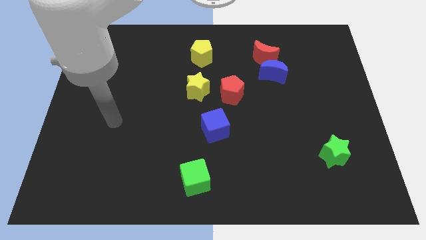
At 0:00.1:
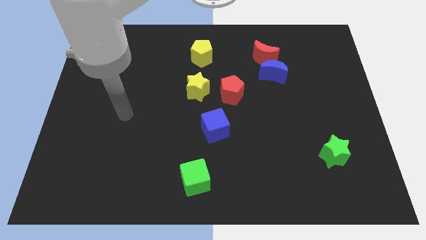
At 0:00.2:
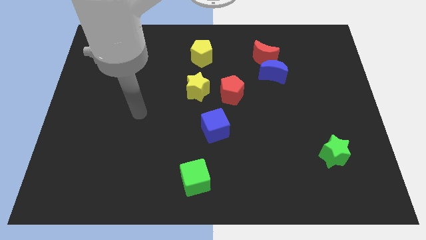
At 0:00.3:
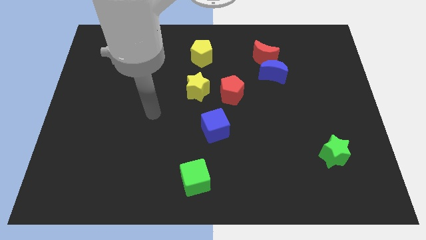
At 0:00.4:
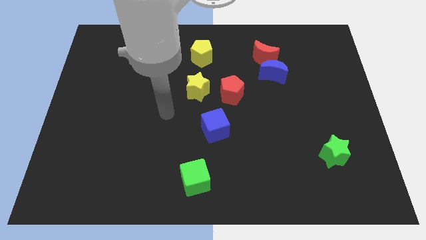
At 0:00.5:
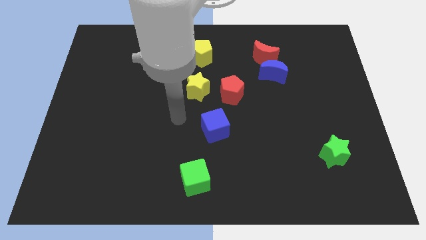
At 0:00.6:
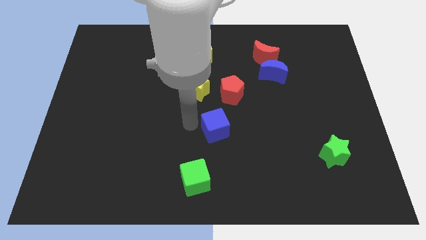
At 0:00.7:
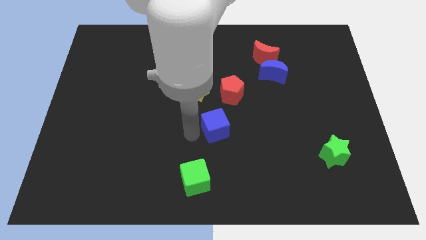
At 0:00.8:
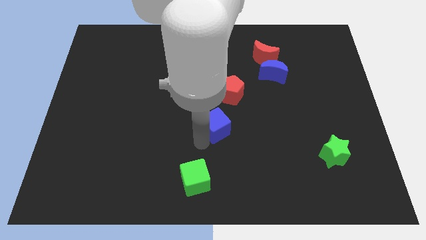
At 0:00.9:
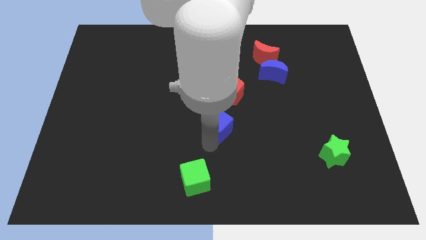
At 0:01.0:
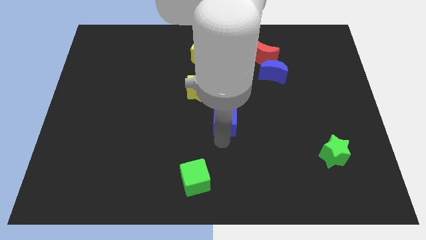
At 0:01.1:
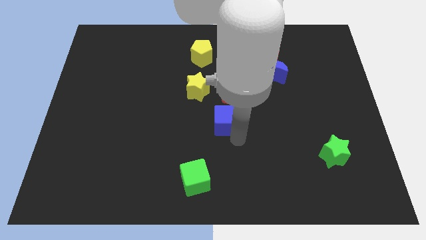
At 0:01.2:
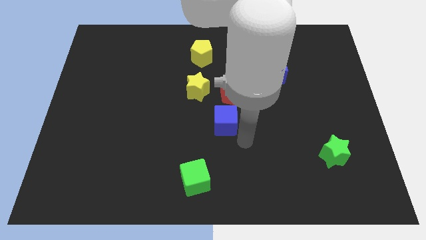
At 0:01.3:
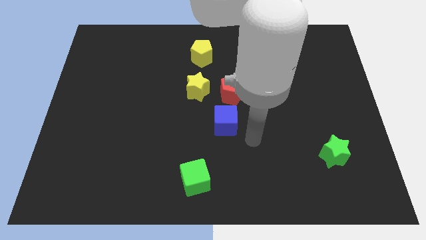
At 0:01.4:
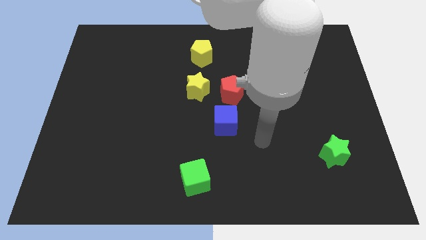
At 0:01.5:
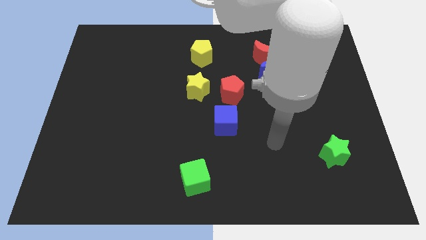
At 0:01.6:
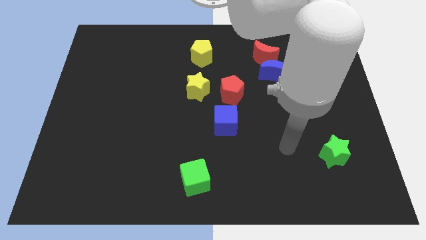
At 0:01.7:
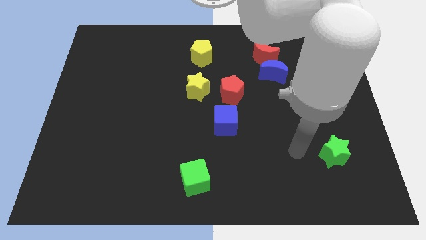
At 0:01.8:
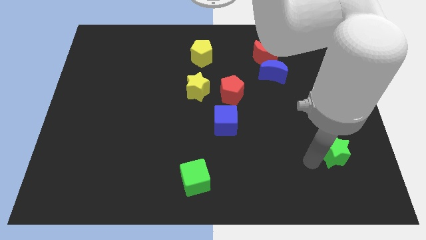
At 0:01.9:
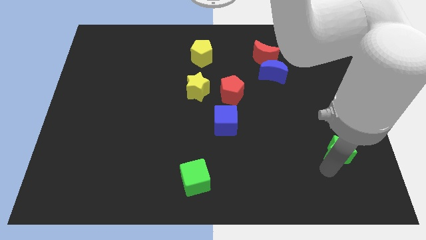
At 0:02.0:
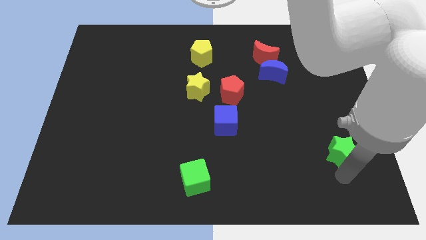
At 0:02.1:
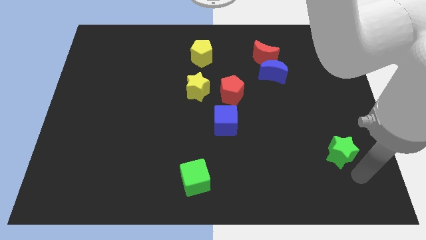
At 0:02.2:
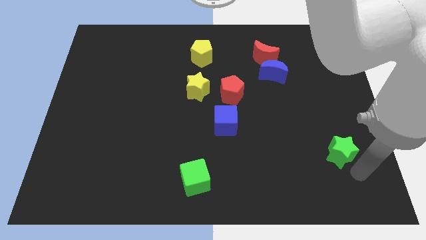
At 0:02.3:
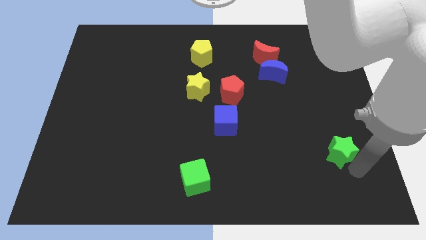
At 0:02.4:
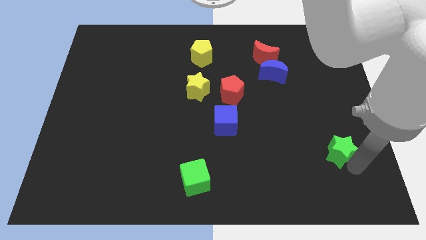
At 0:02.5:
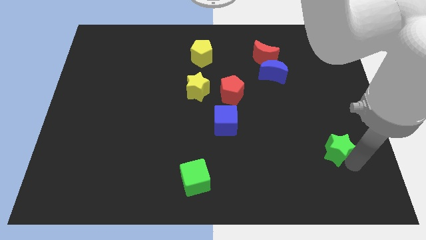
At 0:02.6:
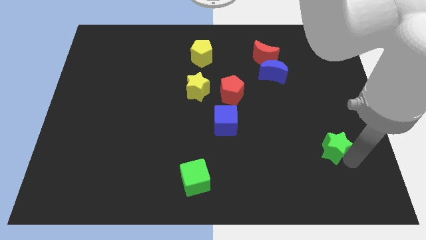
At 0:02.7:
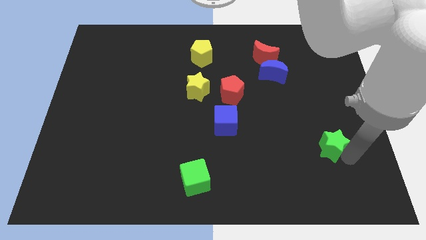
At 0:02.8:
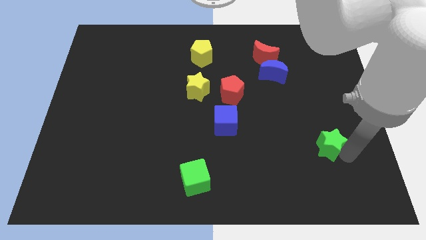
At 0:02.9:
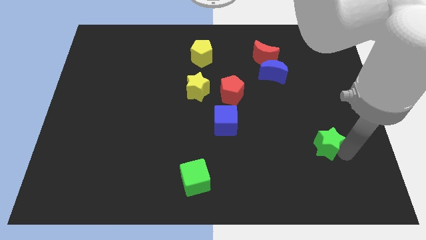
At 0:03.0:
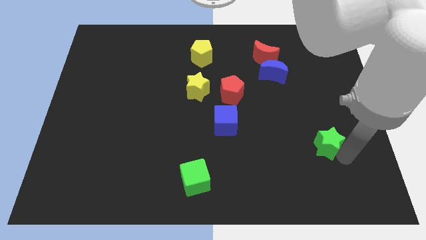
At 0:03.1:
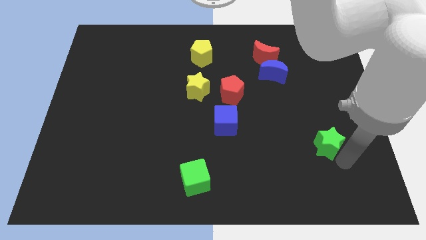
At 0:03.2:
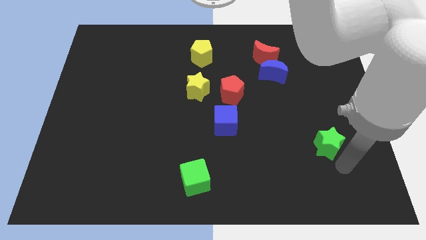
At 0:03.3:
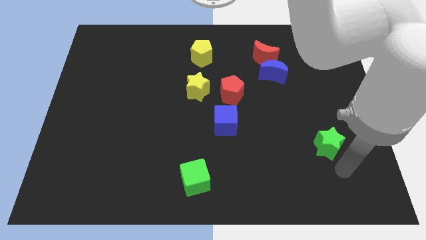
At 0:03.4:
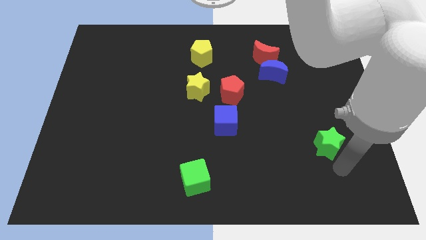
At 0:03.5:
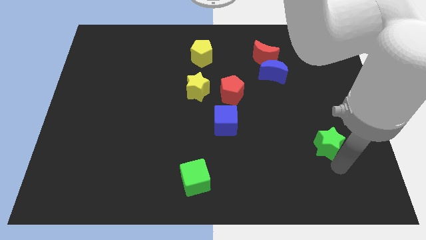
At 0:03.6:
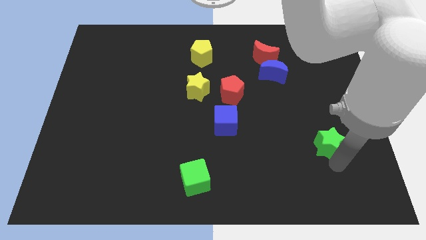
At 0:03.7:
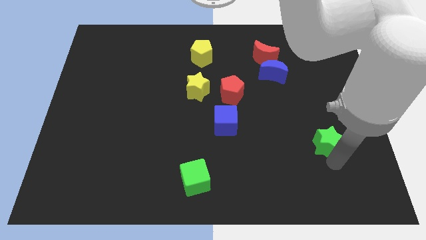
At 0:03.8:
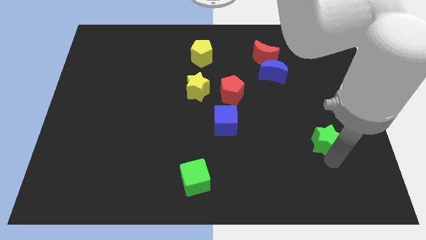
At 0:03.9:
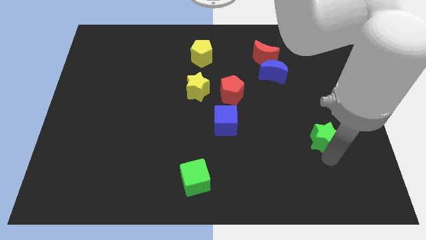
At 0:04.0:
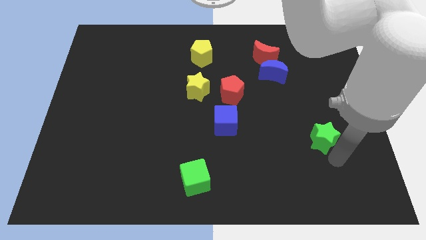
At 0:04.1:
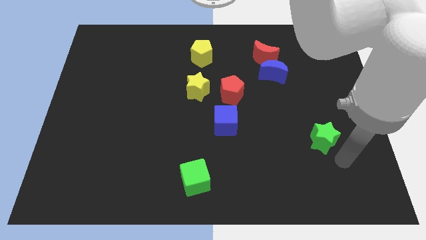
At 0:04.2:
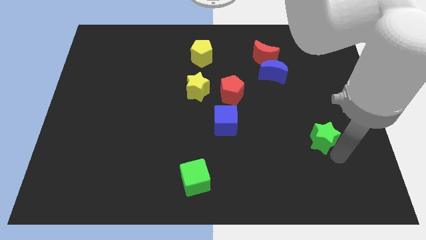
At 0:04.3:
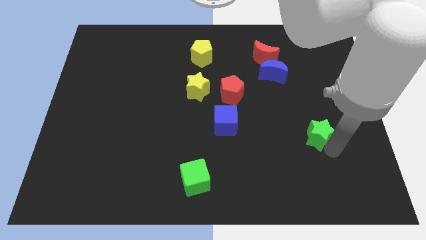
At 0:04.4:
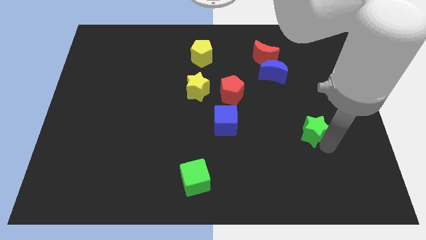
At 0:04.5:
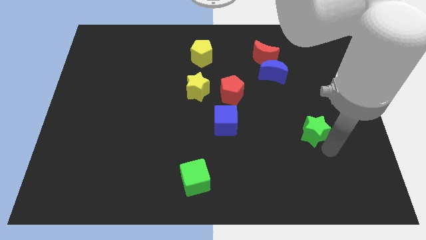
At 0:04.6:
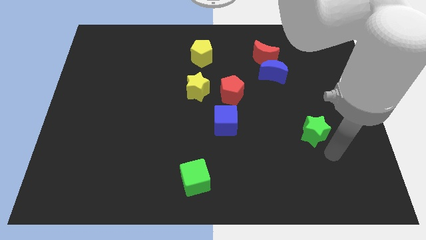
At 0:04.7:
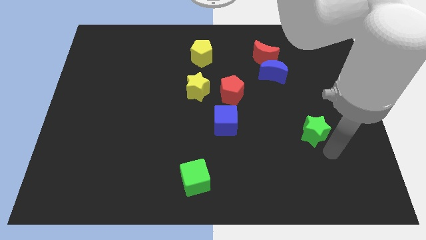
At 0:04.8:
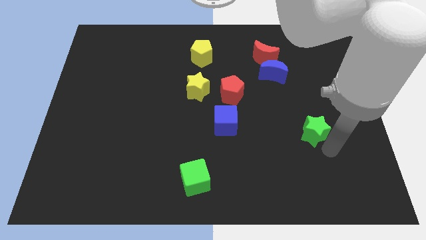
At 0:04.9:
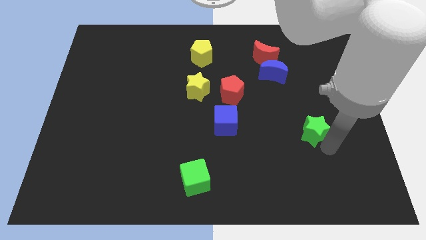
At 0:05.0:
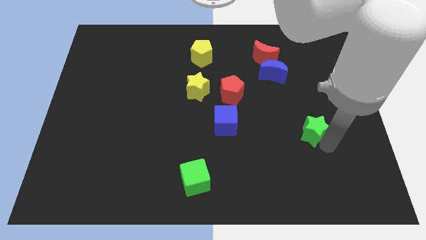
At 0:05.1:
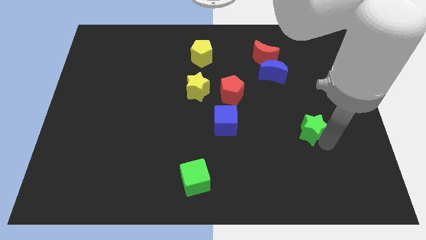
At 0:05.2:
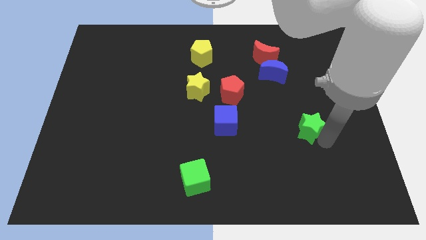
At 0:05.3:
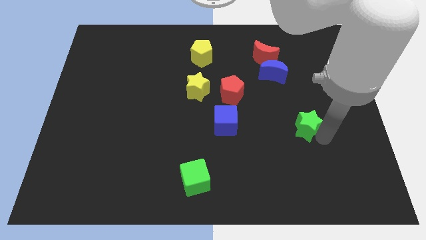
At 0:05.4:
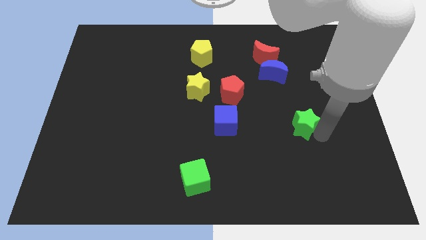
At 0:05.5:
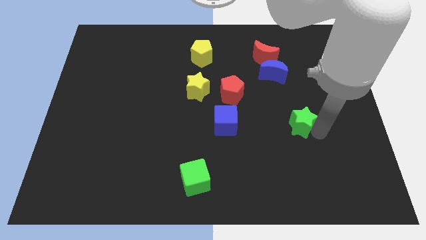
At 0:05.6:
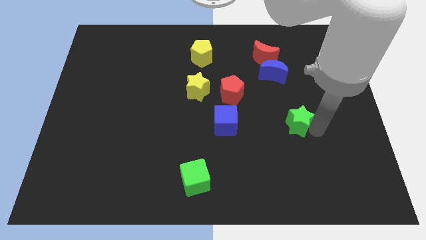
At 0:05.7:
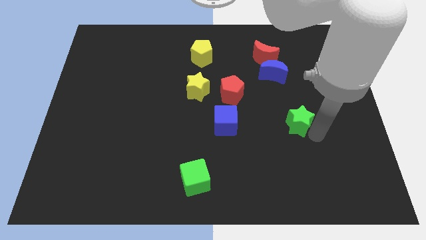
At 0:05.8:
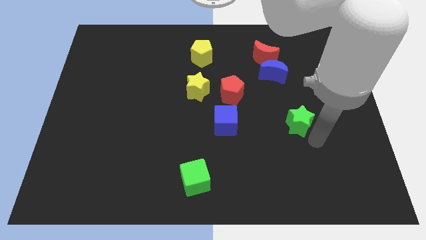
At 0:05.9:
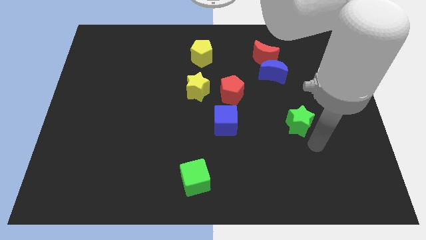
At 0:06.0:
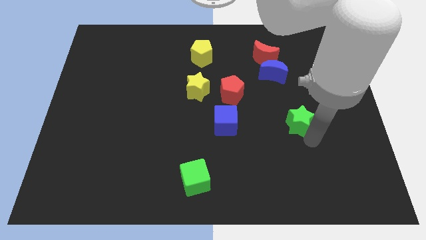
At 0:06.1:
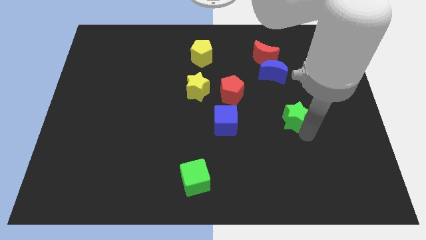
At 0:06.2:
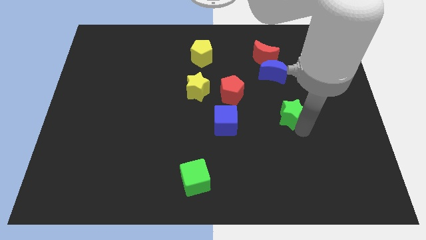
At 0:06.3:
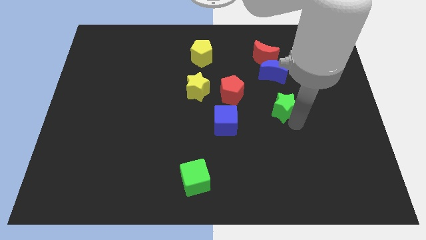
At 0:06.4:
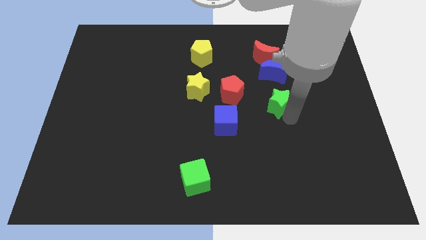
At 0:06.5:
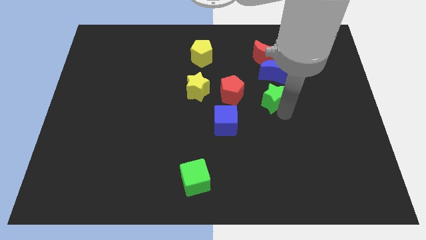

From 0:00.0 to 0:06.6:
put the green star to the bottom side of the red moon
